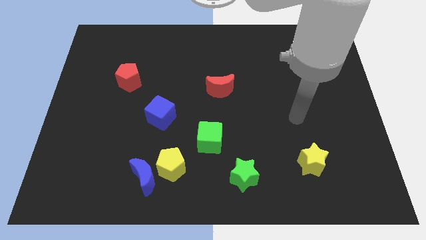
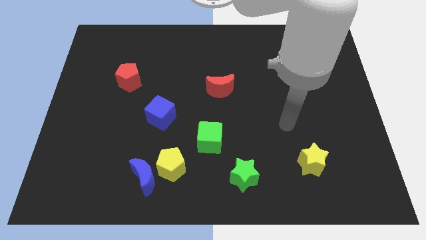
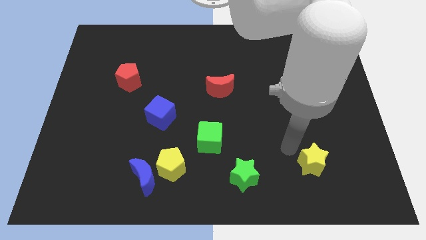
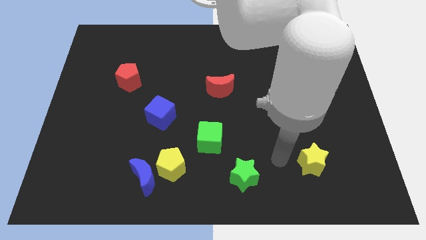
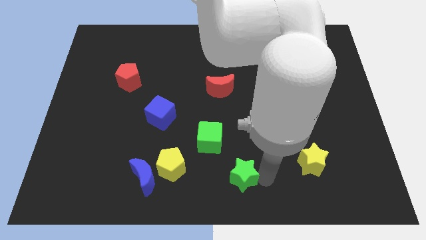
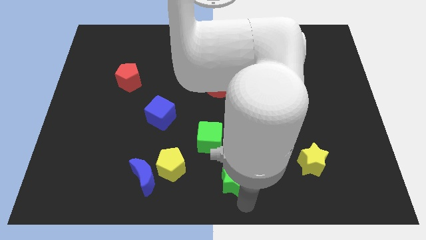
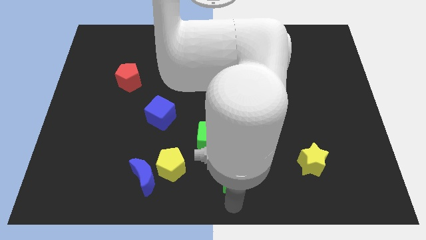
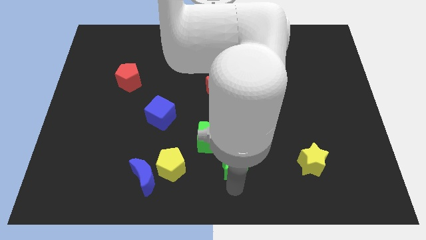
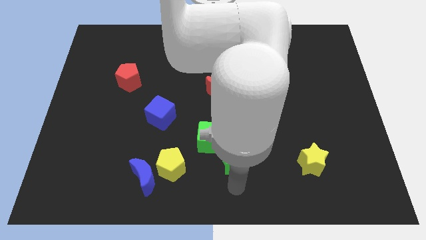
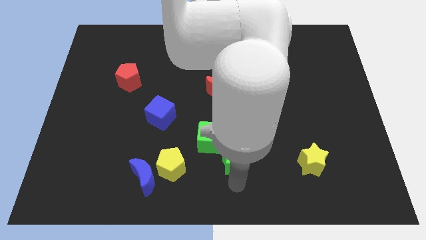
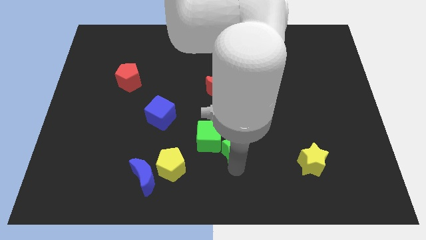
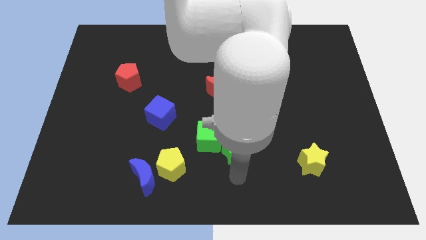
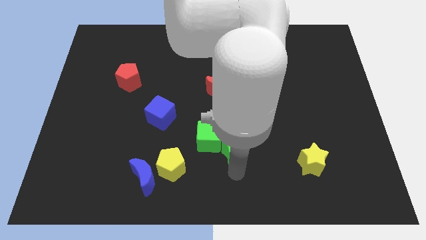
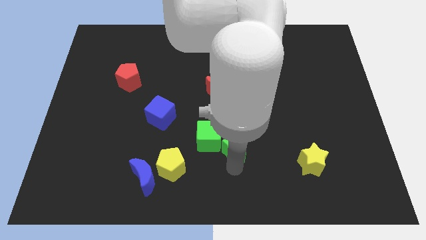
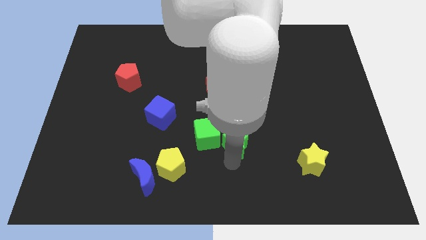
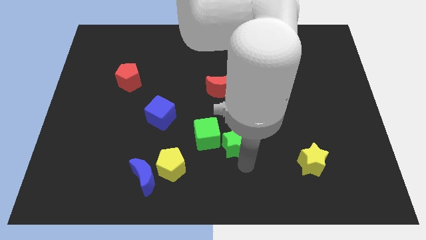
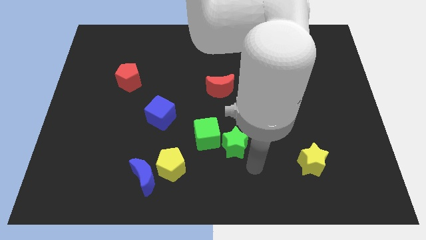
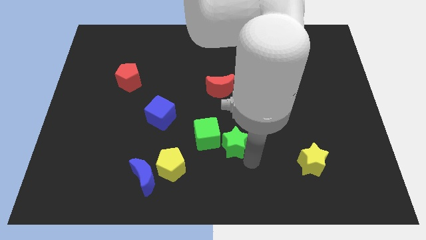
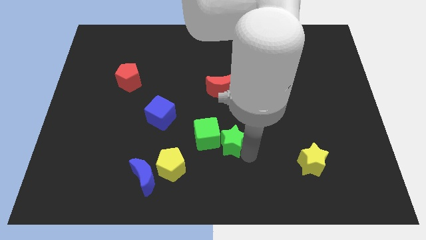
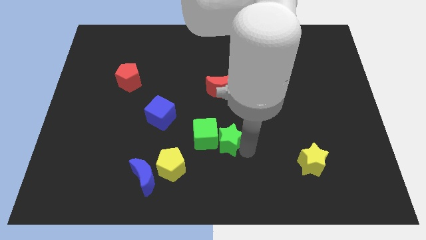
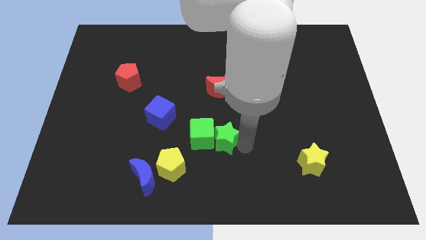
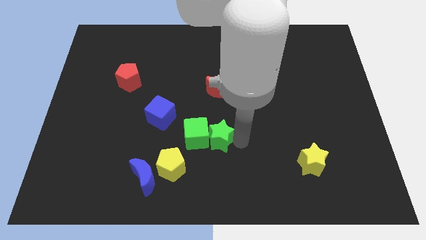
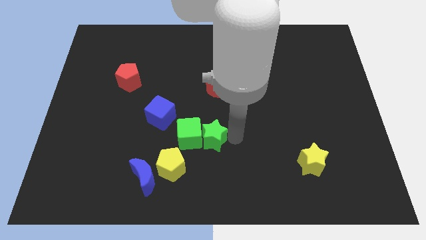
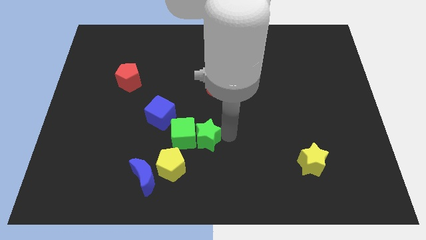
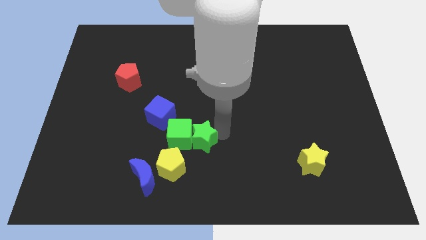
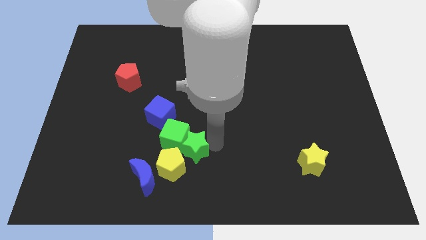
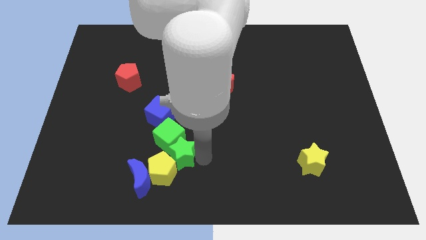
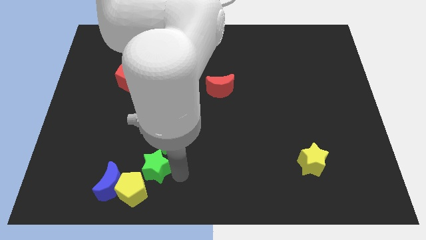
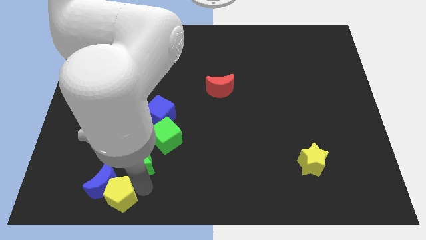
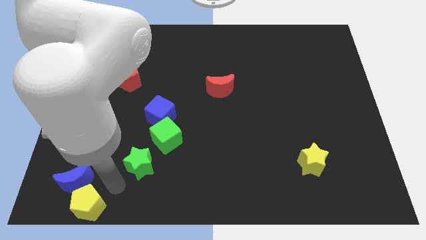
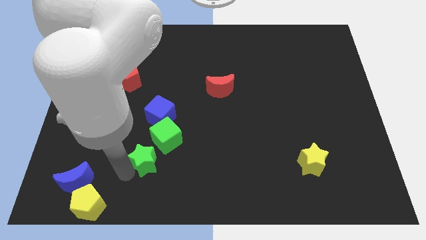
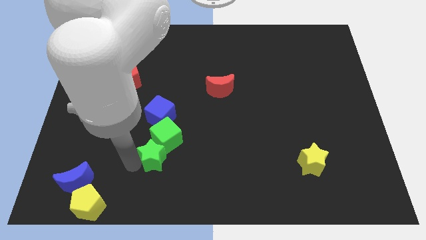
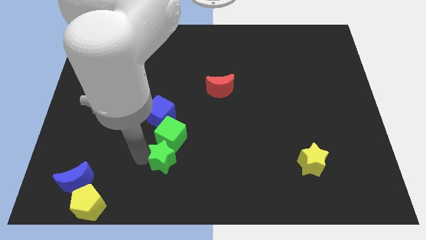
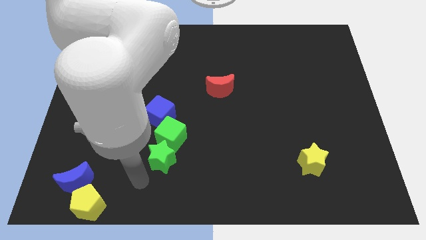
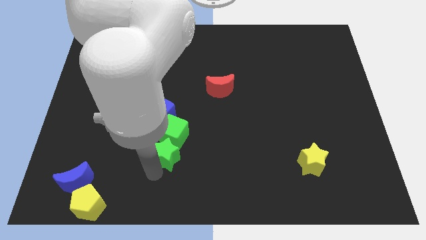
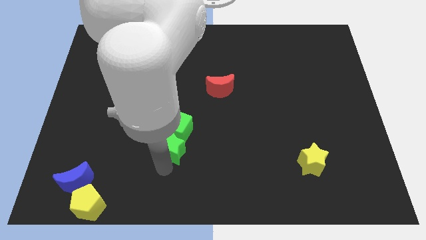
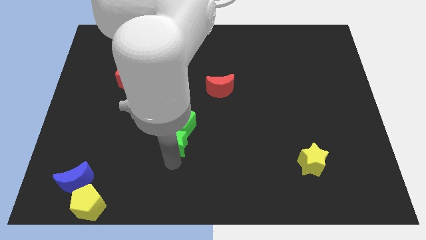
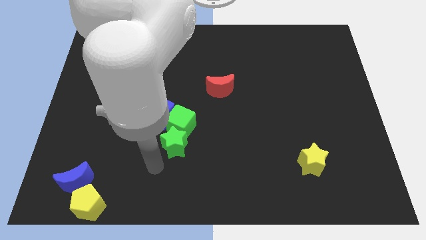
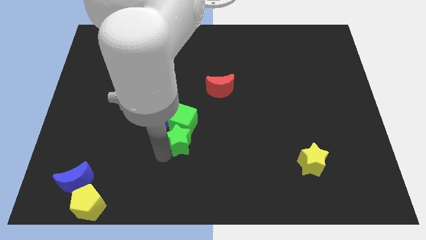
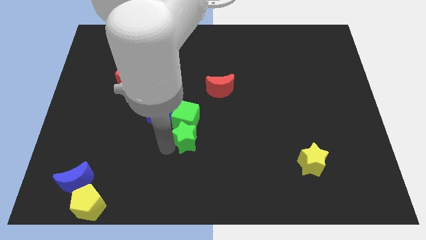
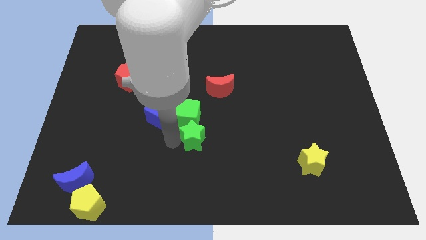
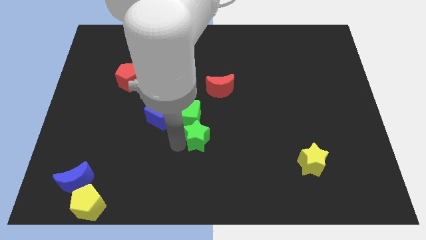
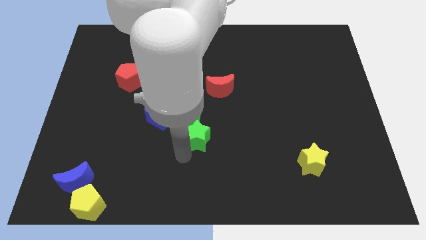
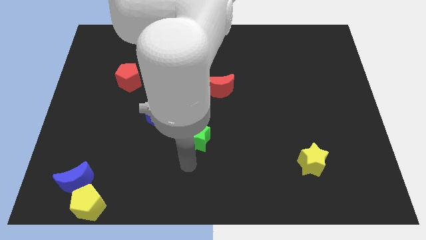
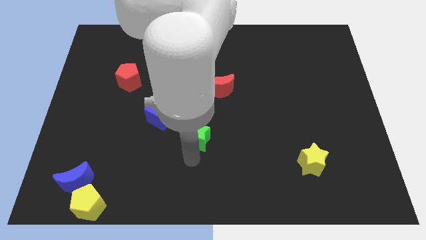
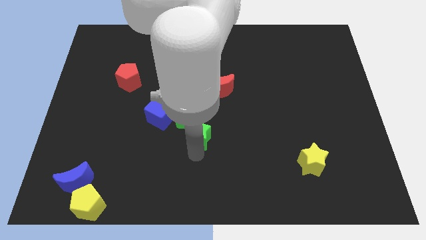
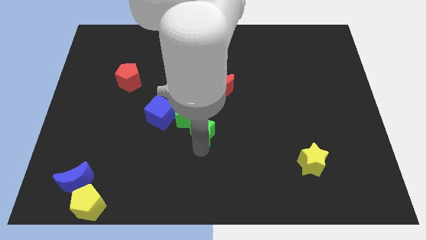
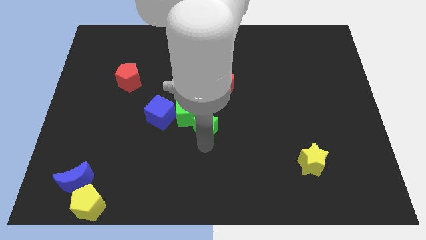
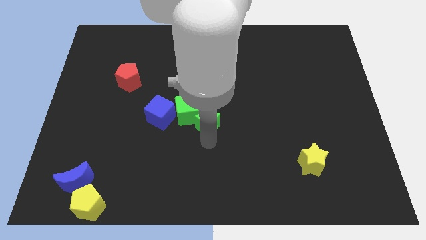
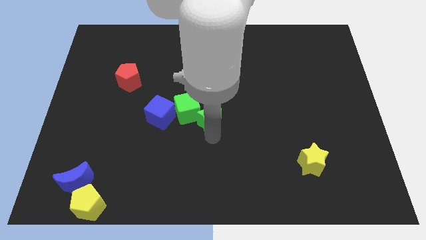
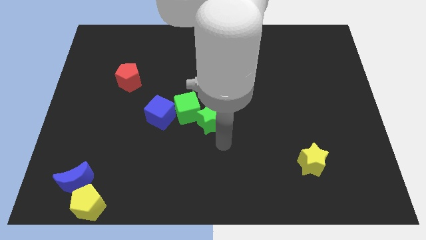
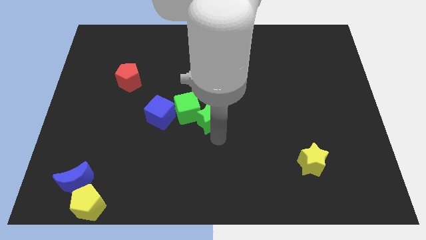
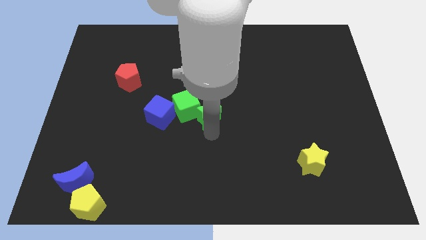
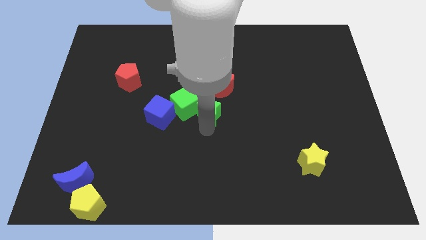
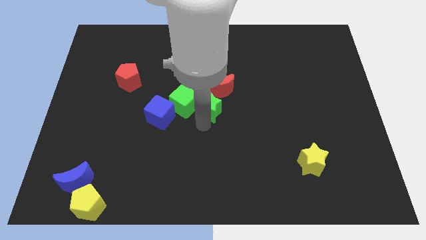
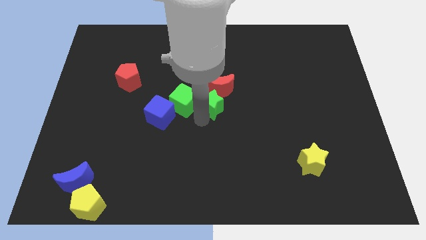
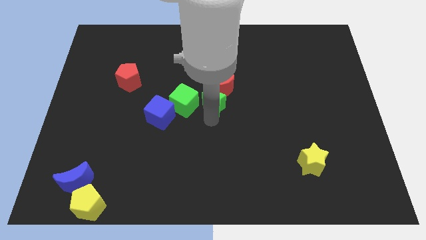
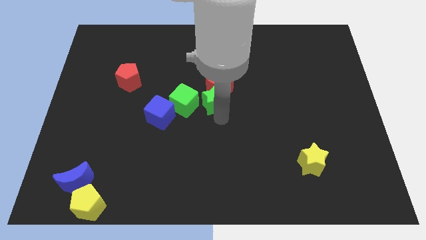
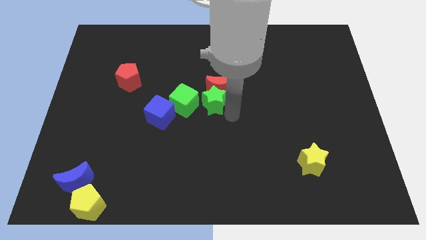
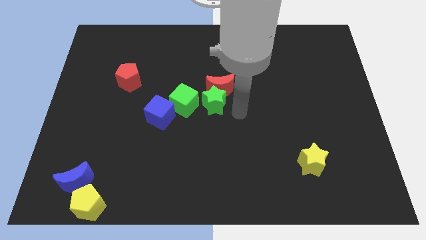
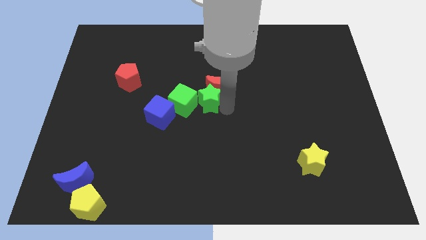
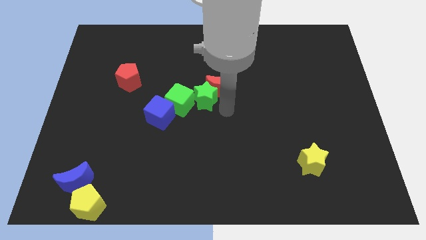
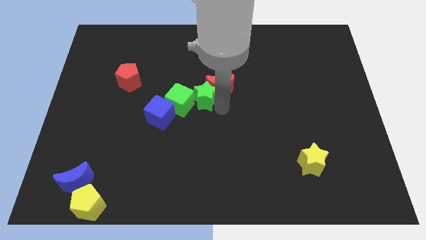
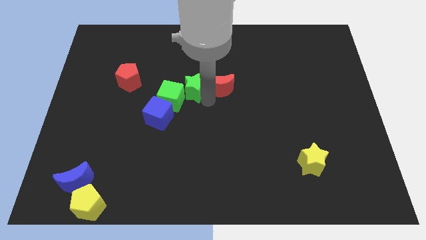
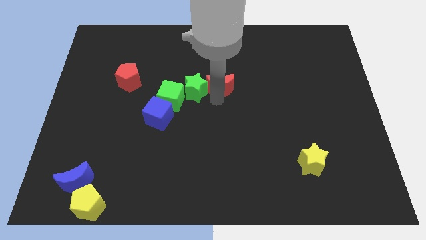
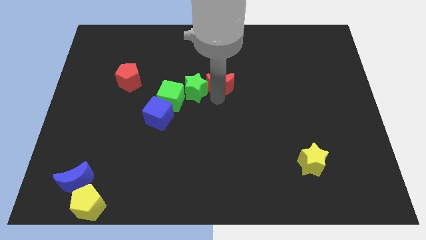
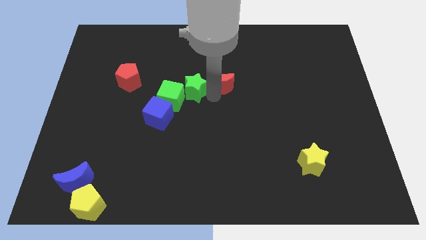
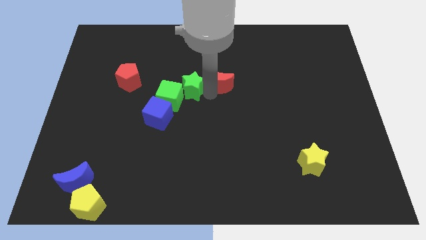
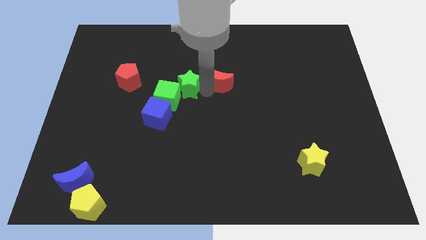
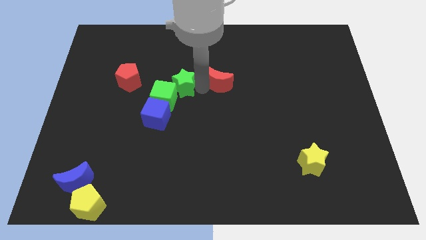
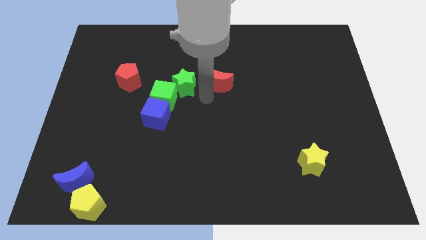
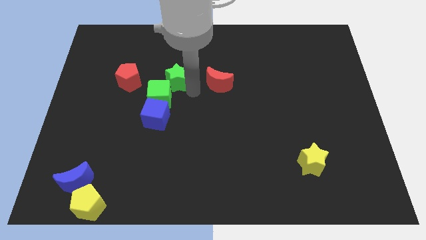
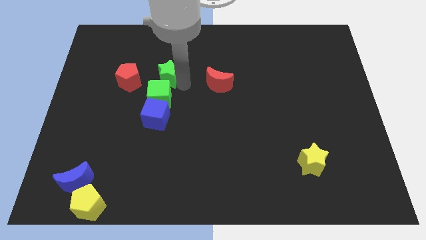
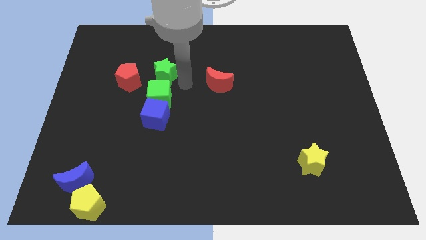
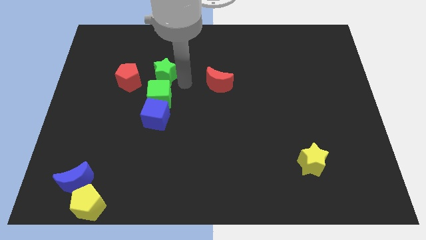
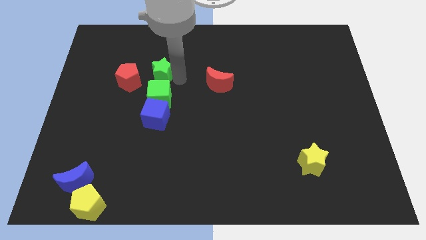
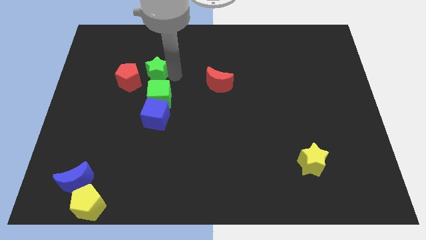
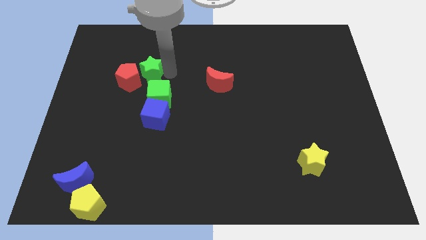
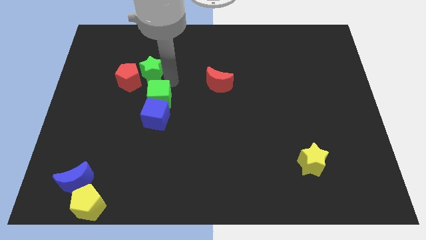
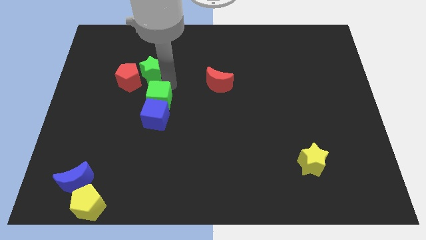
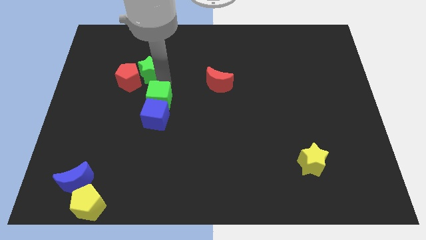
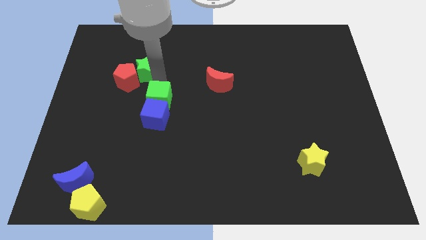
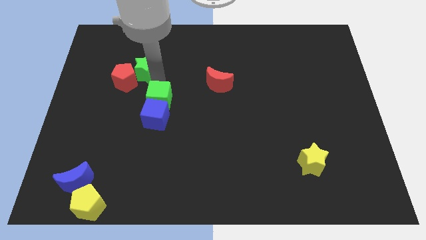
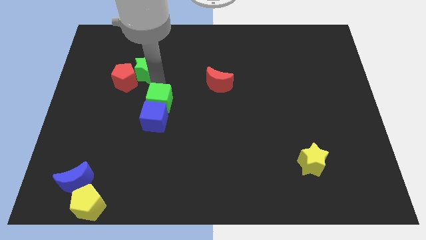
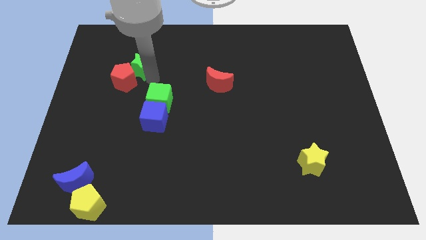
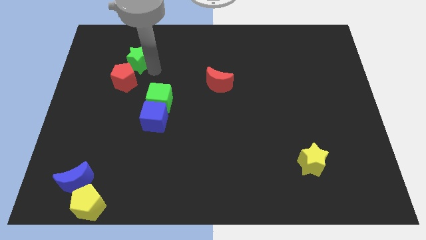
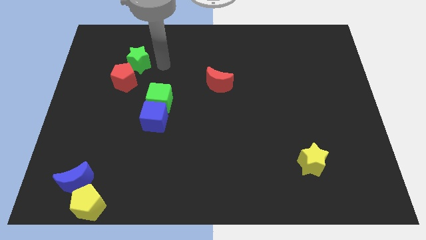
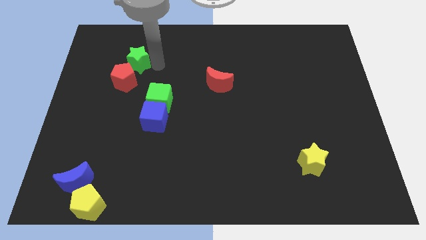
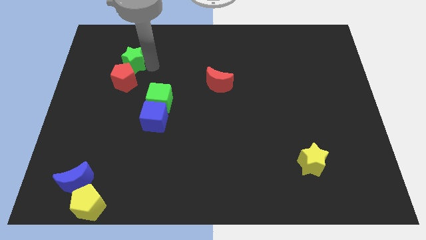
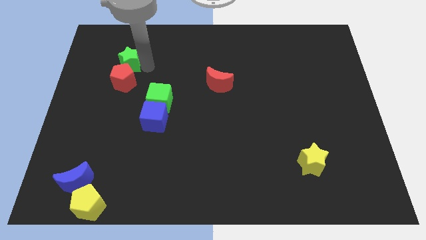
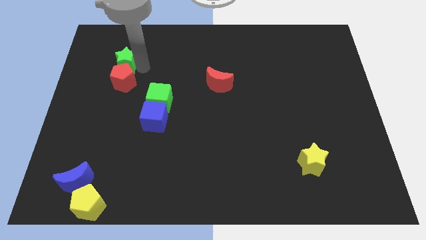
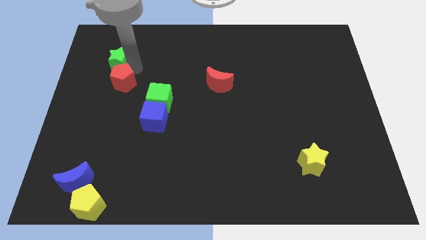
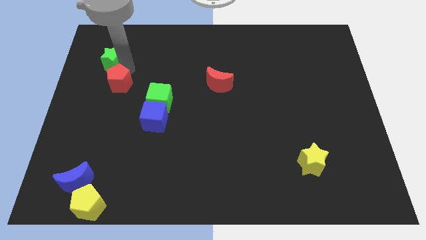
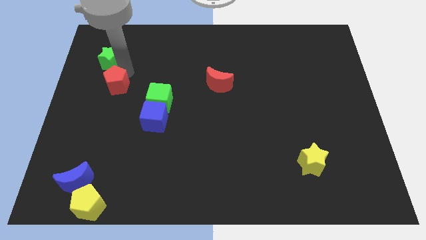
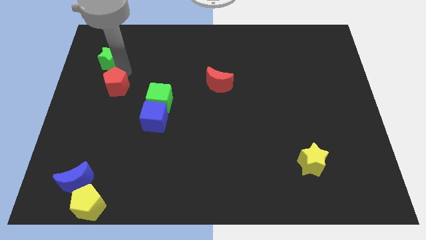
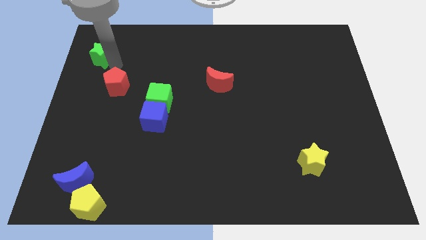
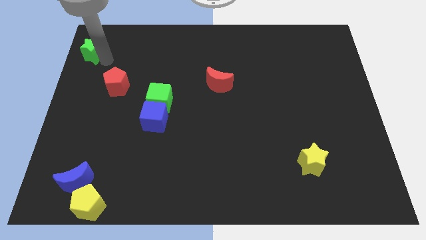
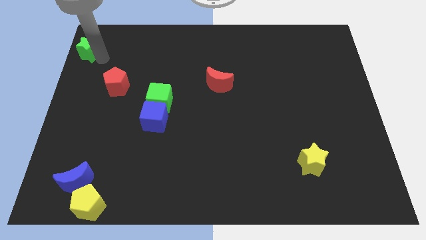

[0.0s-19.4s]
push the green star to the top left
